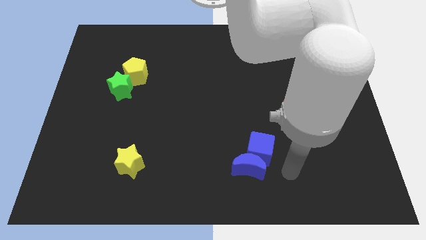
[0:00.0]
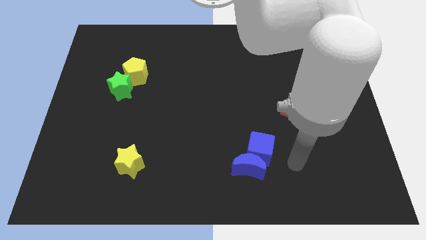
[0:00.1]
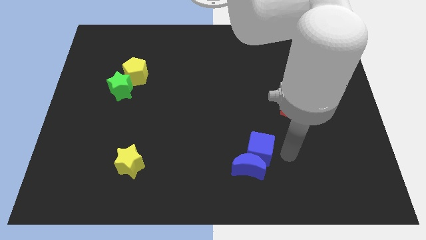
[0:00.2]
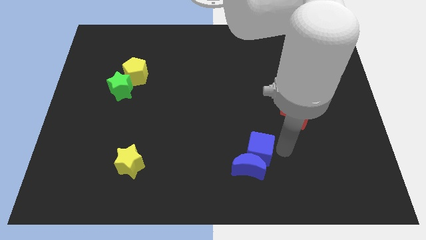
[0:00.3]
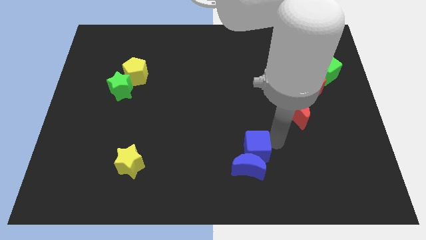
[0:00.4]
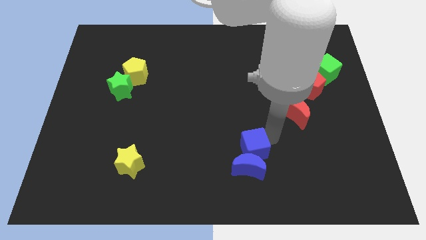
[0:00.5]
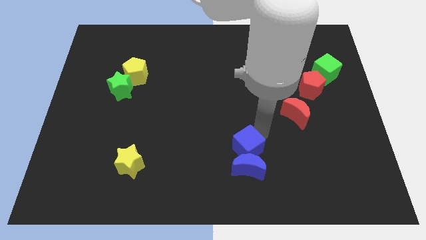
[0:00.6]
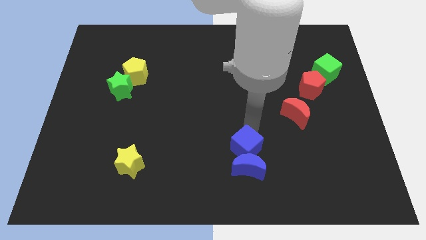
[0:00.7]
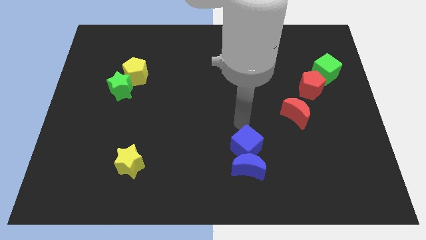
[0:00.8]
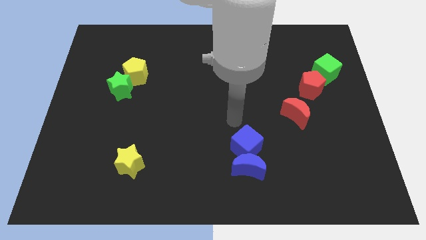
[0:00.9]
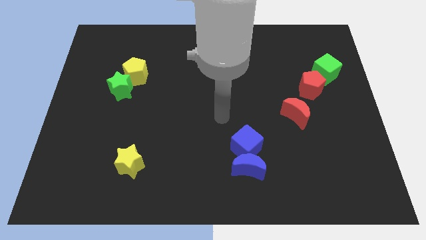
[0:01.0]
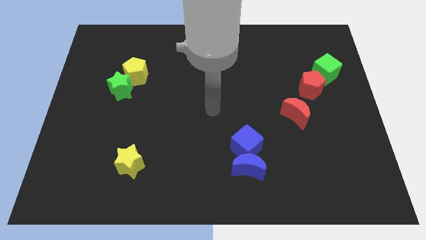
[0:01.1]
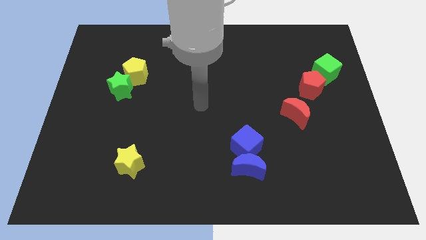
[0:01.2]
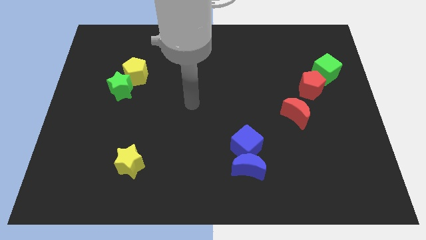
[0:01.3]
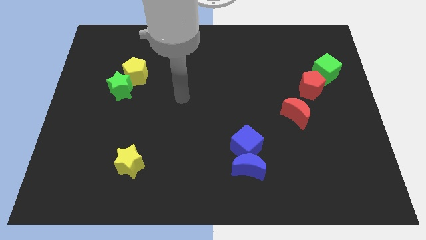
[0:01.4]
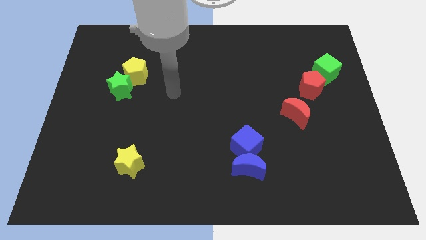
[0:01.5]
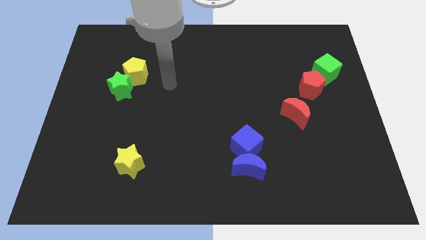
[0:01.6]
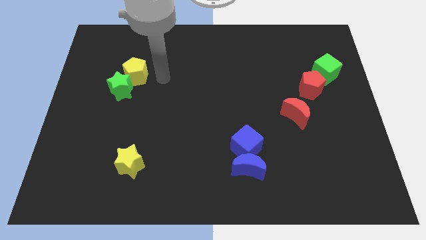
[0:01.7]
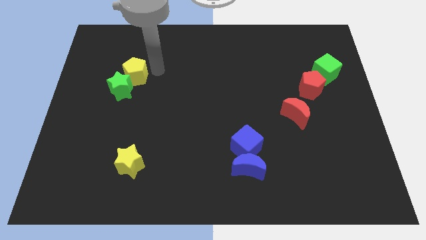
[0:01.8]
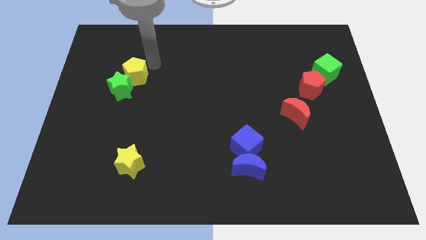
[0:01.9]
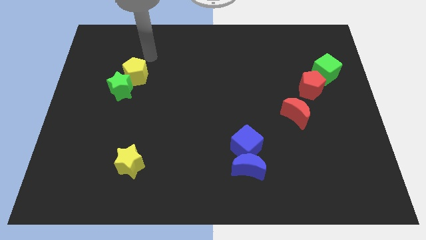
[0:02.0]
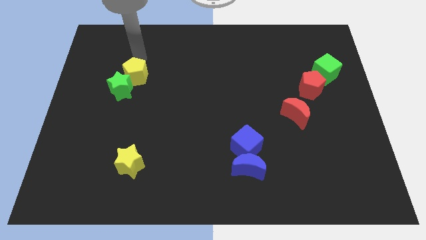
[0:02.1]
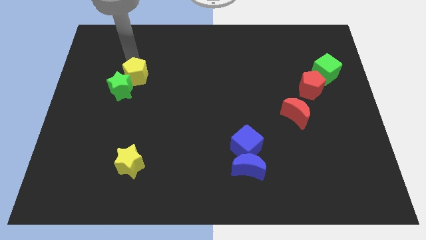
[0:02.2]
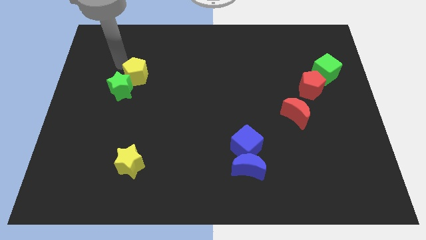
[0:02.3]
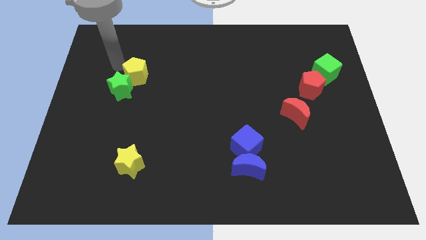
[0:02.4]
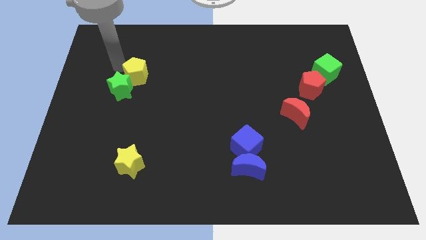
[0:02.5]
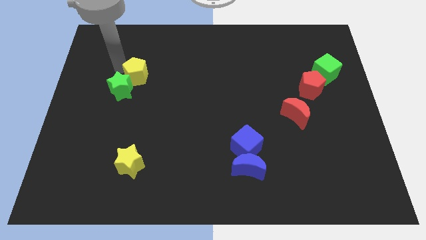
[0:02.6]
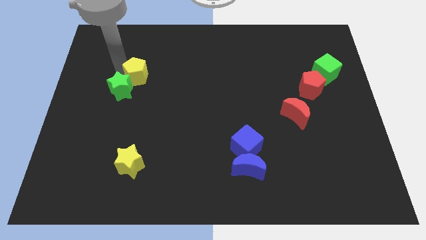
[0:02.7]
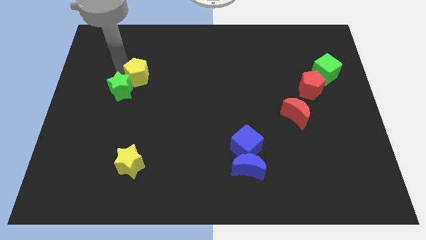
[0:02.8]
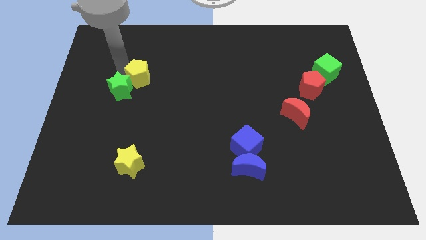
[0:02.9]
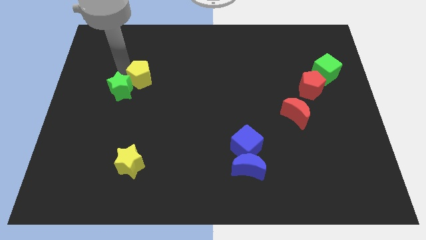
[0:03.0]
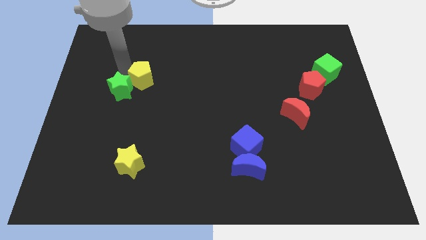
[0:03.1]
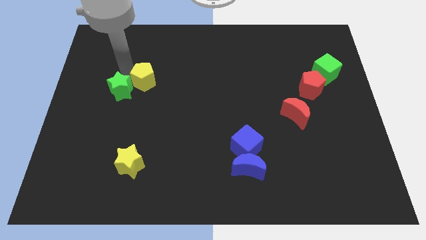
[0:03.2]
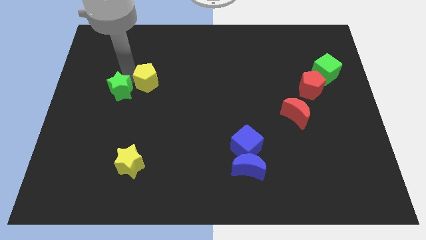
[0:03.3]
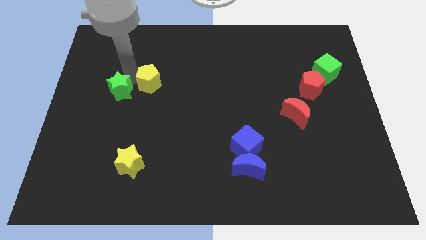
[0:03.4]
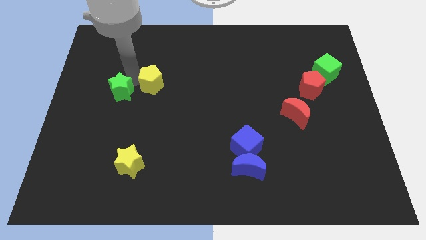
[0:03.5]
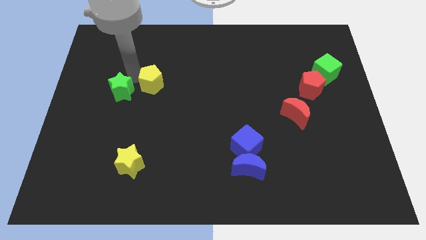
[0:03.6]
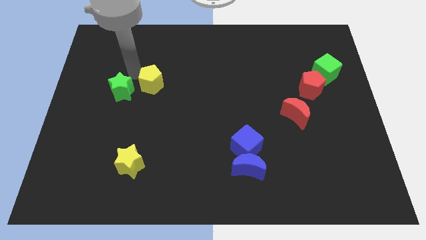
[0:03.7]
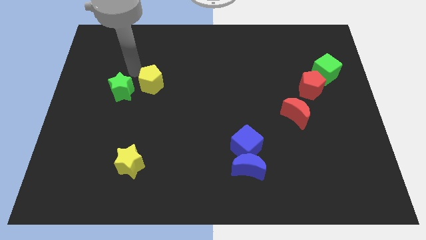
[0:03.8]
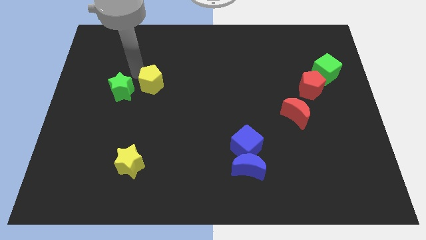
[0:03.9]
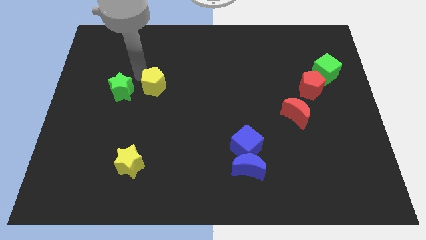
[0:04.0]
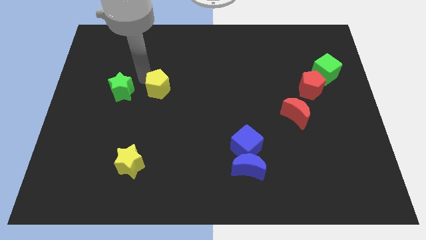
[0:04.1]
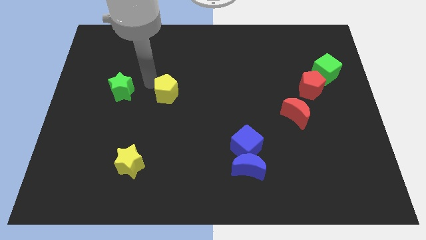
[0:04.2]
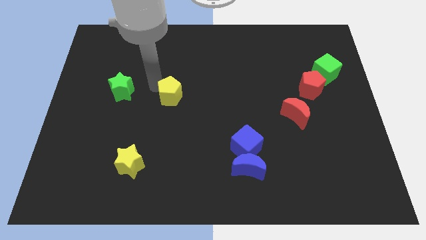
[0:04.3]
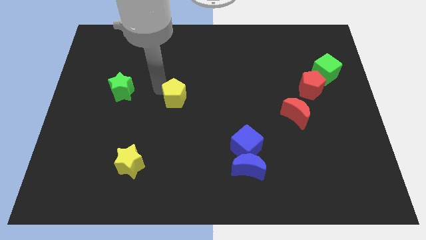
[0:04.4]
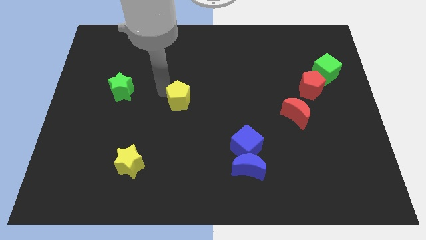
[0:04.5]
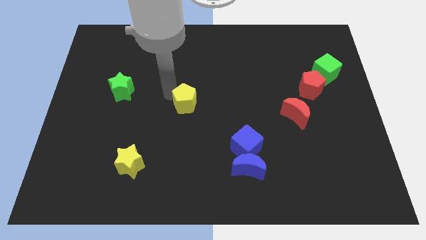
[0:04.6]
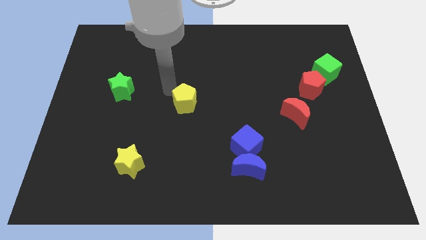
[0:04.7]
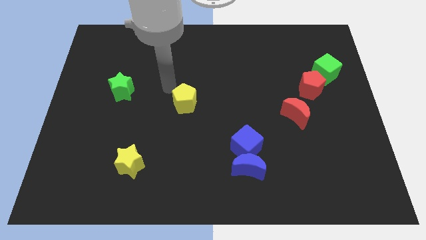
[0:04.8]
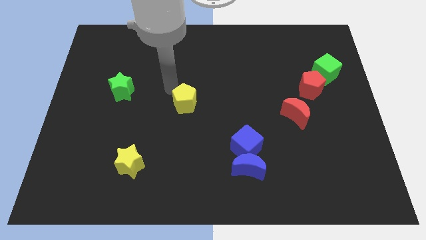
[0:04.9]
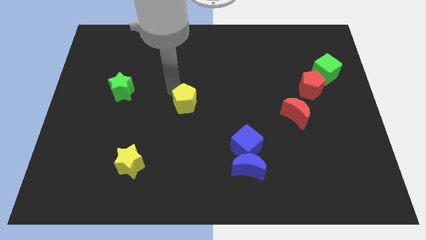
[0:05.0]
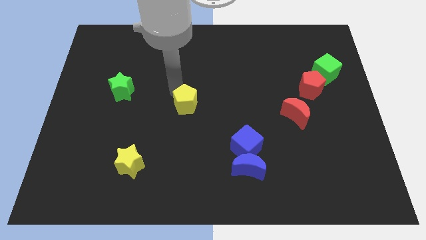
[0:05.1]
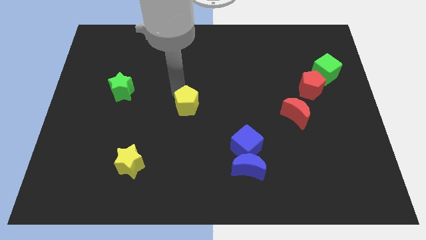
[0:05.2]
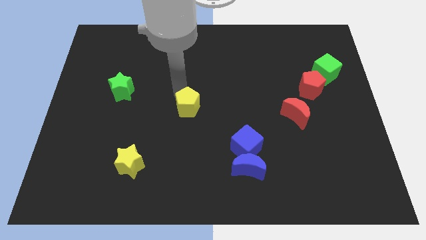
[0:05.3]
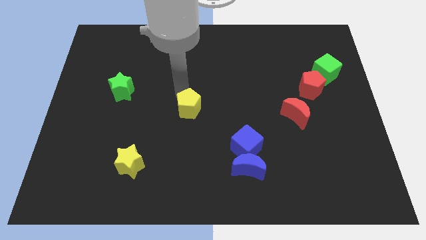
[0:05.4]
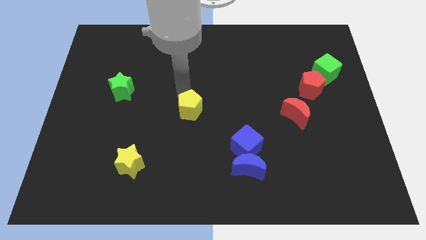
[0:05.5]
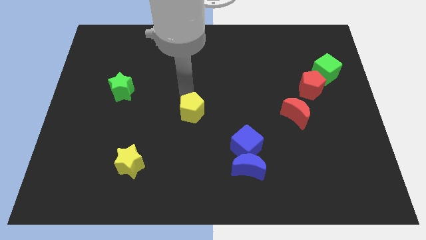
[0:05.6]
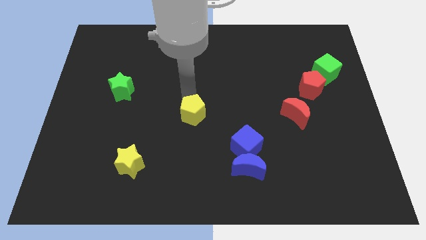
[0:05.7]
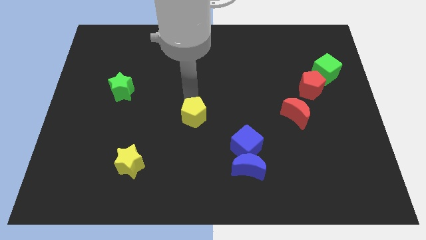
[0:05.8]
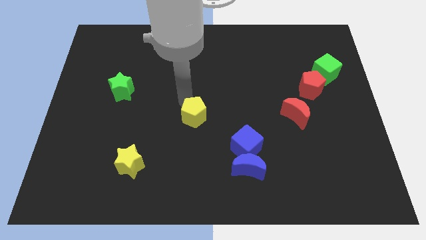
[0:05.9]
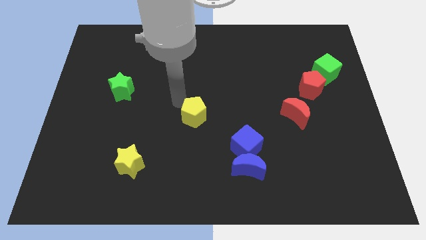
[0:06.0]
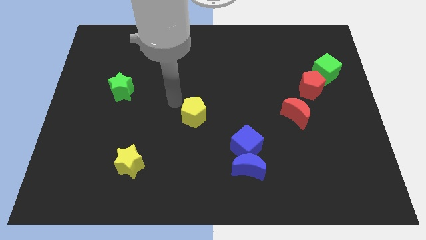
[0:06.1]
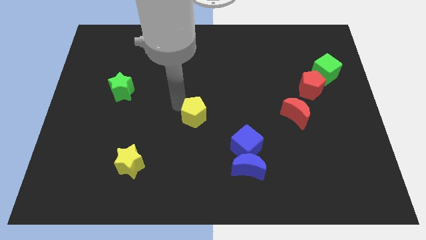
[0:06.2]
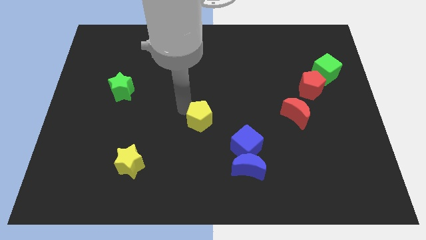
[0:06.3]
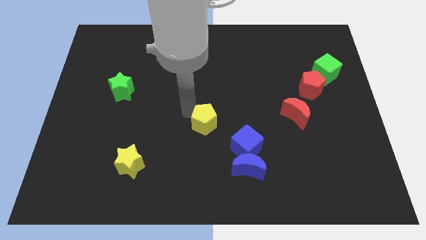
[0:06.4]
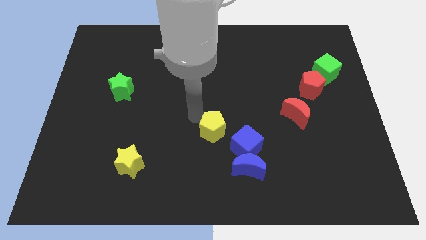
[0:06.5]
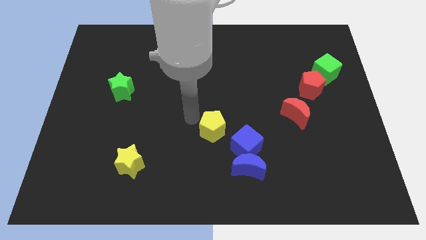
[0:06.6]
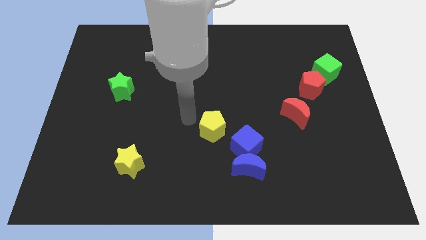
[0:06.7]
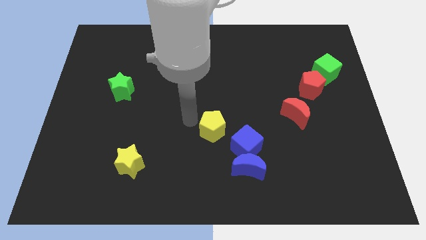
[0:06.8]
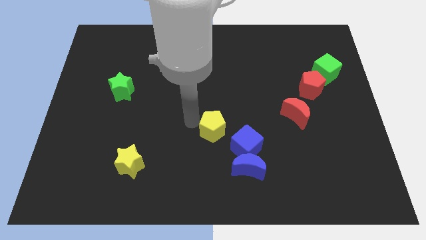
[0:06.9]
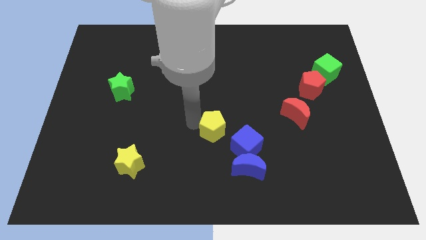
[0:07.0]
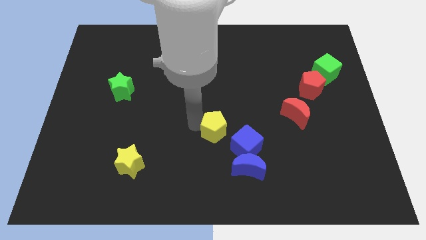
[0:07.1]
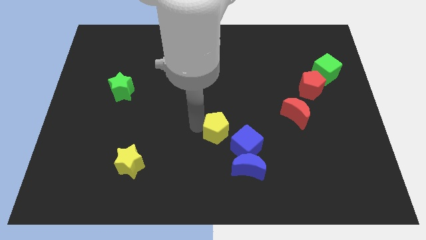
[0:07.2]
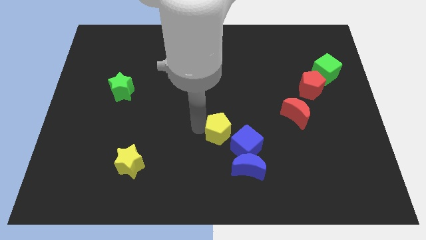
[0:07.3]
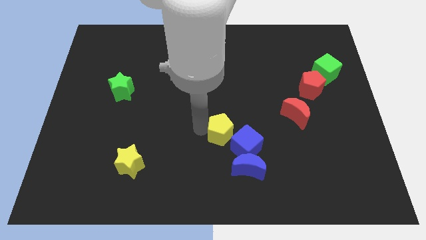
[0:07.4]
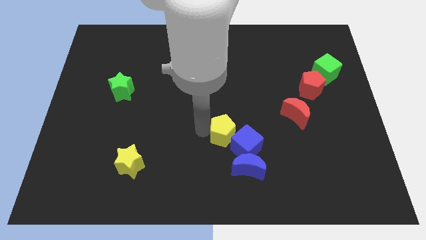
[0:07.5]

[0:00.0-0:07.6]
put the yellow pentagon close to the blue cube

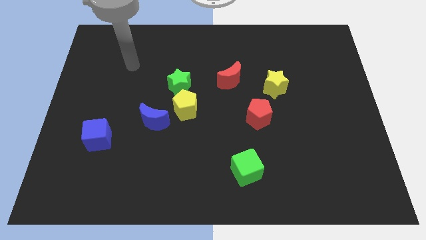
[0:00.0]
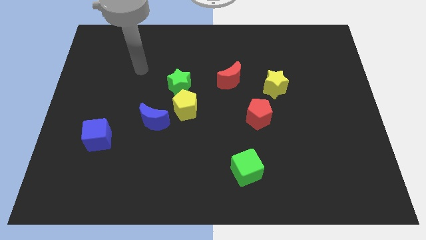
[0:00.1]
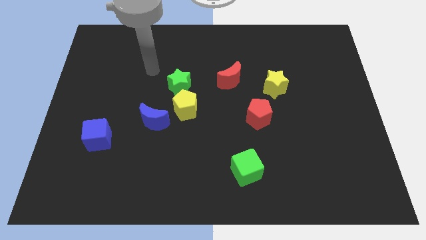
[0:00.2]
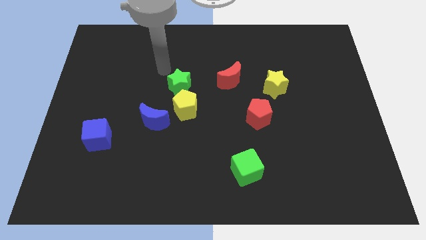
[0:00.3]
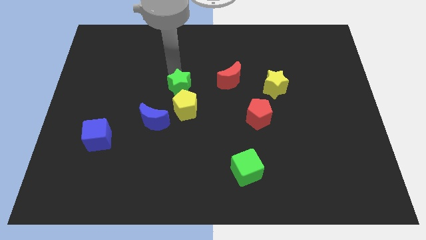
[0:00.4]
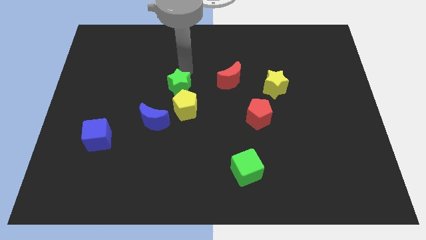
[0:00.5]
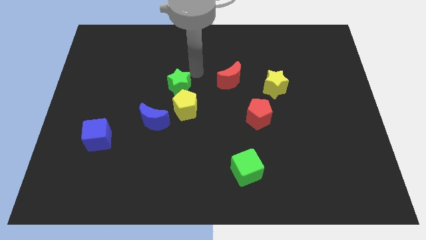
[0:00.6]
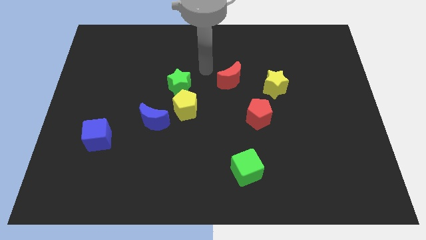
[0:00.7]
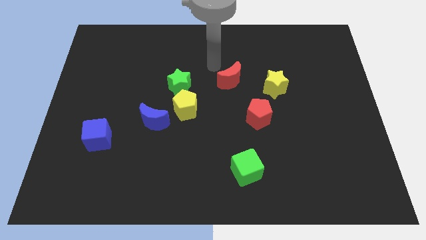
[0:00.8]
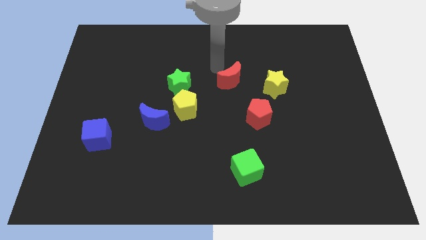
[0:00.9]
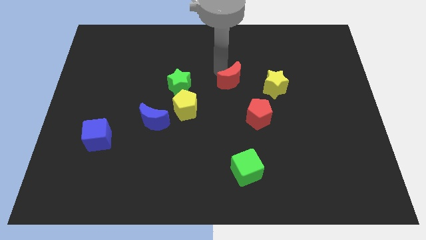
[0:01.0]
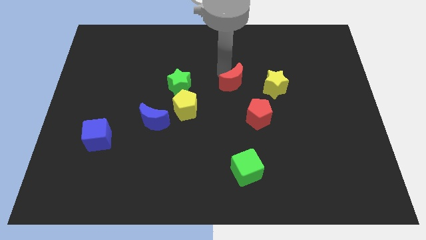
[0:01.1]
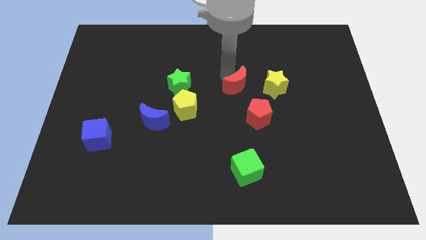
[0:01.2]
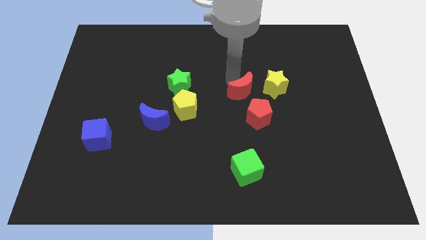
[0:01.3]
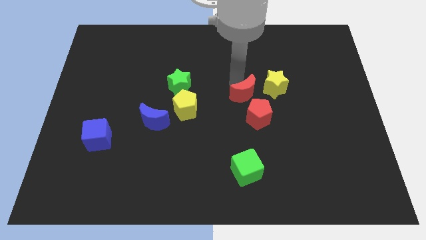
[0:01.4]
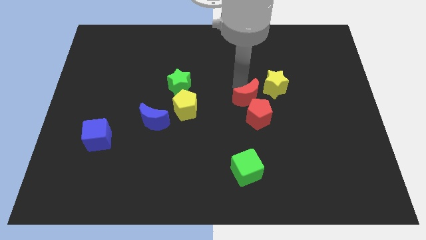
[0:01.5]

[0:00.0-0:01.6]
put the red moon next to the red pentagon
